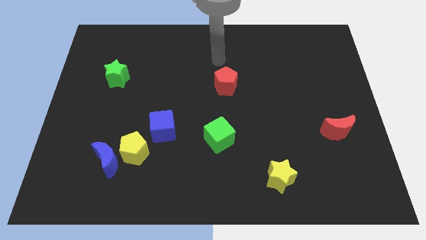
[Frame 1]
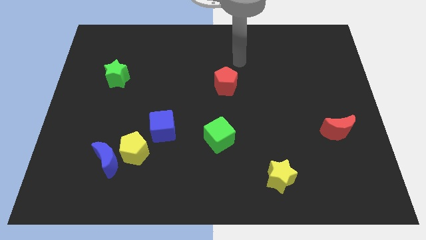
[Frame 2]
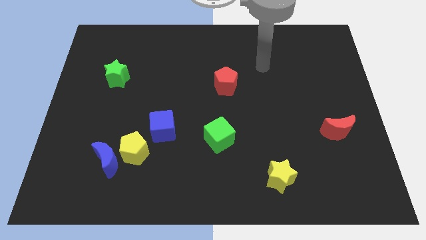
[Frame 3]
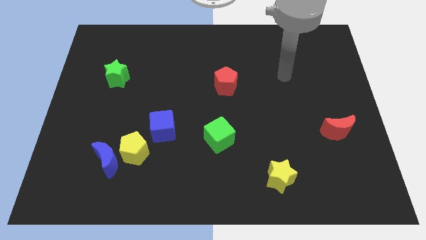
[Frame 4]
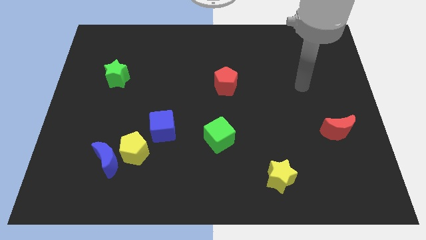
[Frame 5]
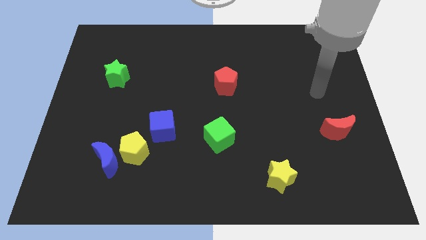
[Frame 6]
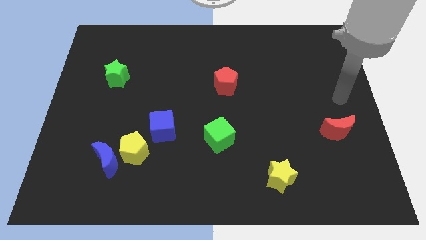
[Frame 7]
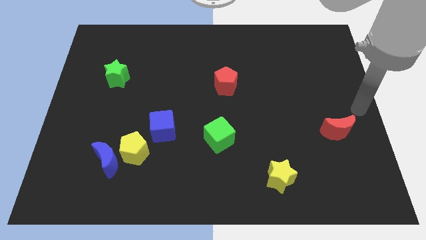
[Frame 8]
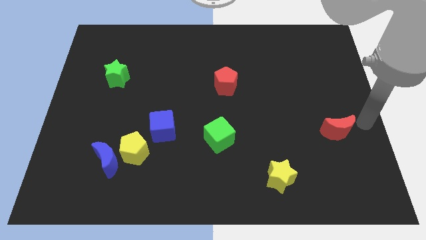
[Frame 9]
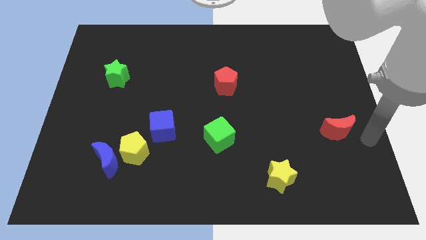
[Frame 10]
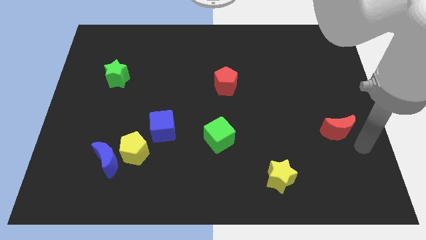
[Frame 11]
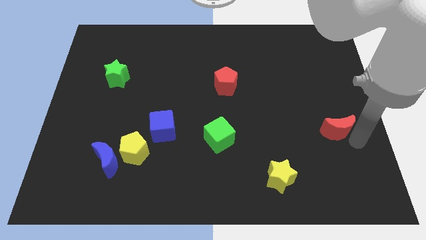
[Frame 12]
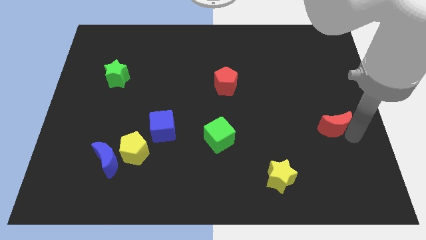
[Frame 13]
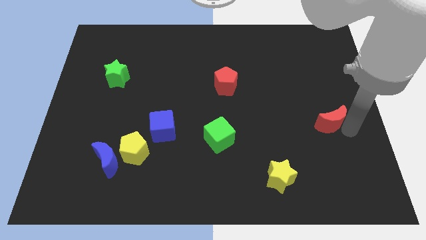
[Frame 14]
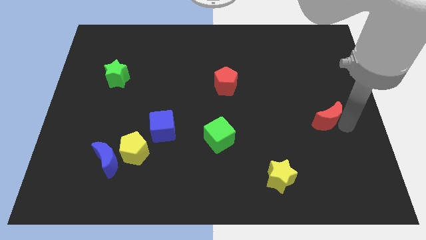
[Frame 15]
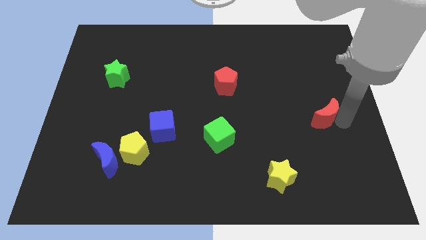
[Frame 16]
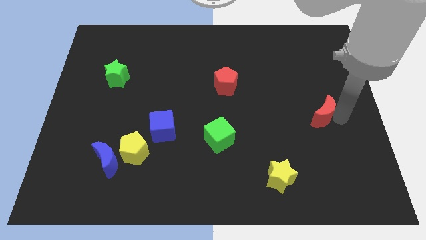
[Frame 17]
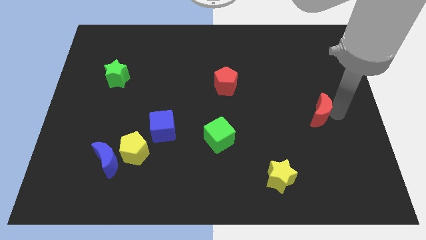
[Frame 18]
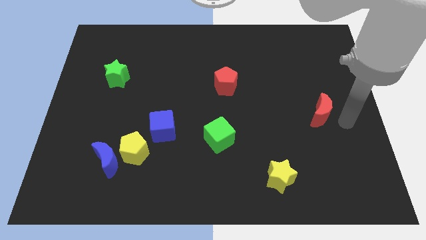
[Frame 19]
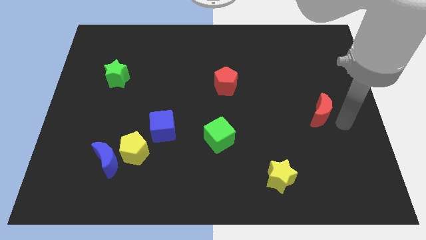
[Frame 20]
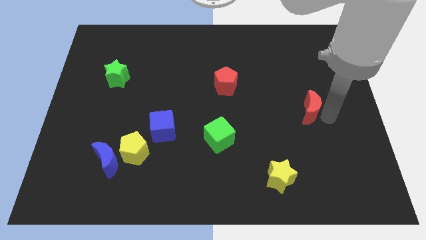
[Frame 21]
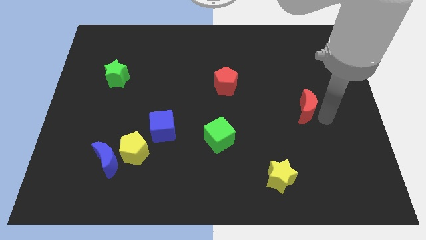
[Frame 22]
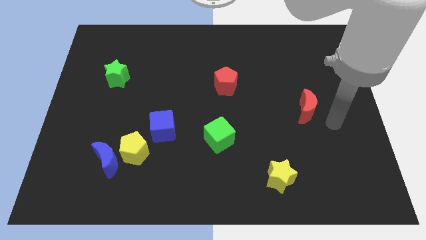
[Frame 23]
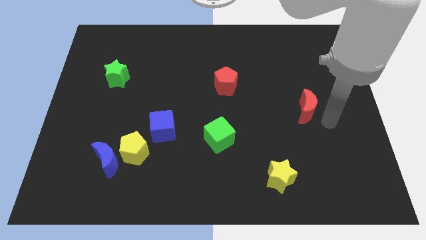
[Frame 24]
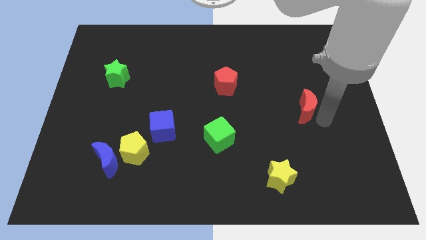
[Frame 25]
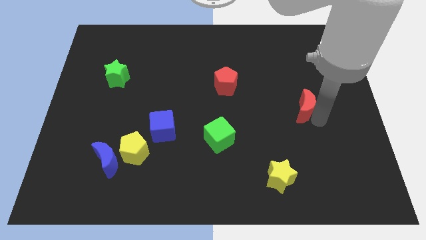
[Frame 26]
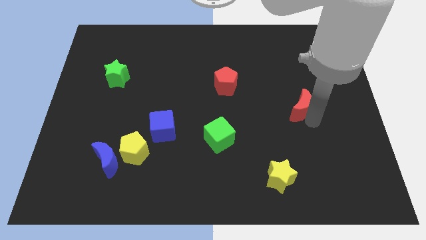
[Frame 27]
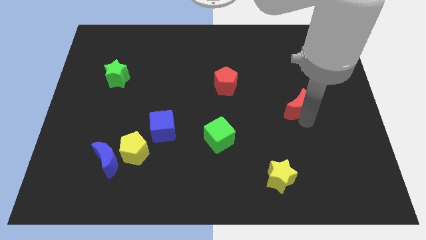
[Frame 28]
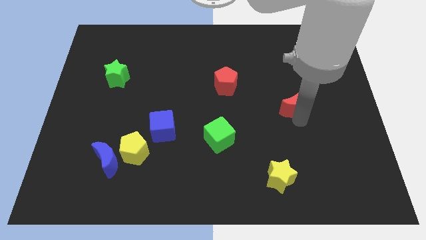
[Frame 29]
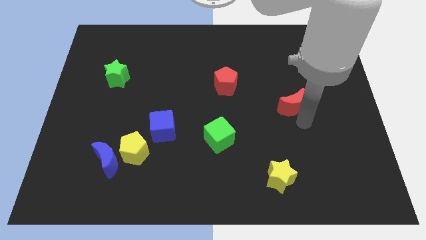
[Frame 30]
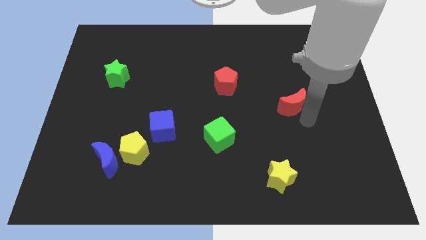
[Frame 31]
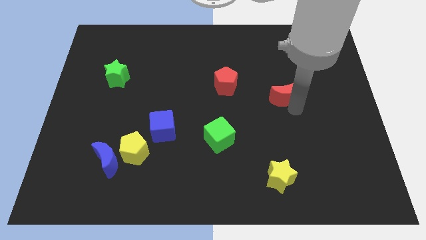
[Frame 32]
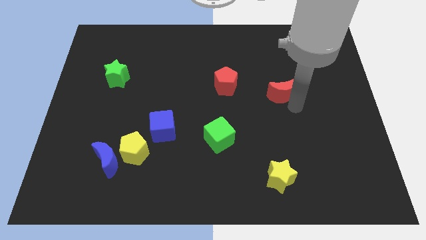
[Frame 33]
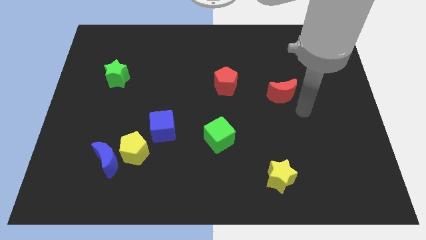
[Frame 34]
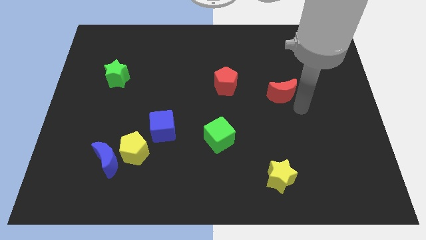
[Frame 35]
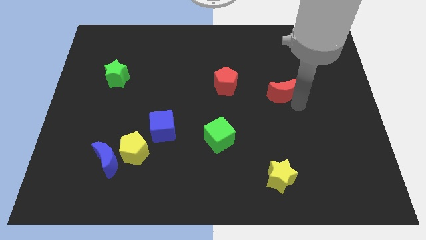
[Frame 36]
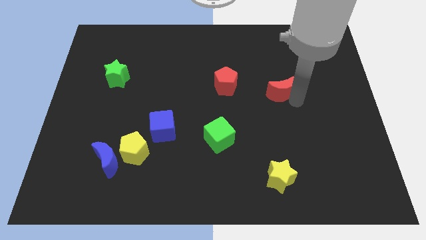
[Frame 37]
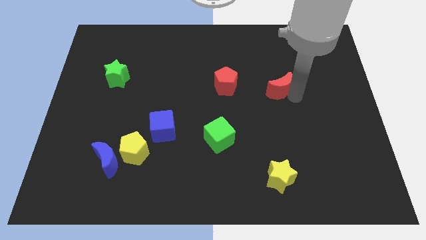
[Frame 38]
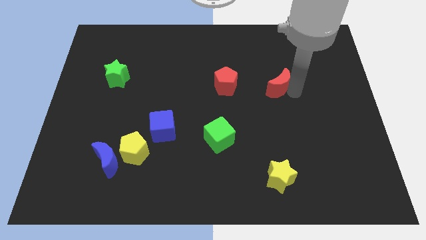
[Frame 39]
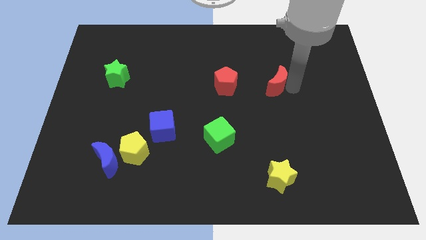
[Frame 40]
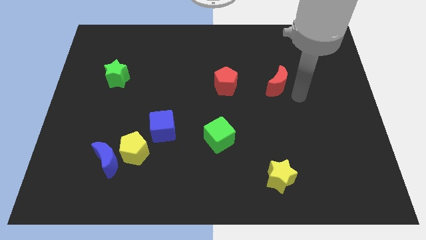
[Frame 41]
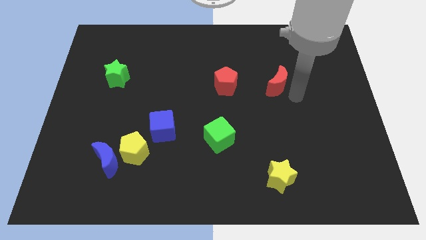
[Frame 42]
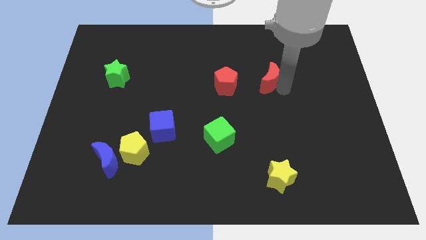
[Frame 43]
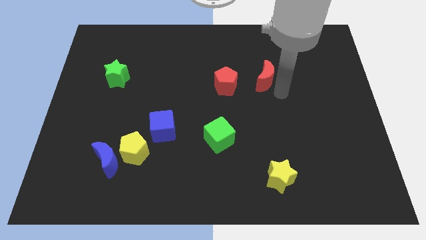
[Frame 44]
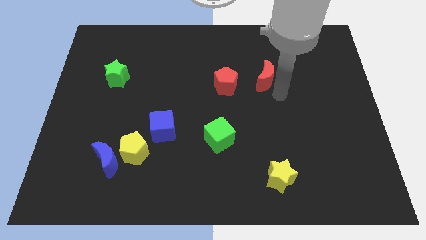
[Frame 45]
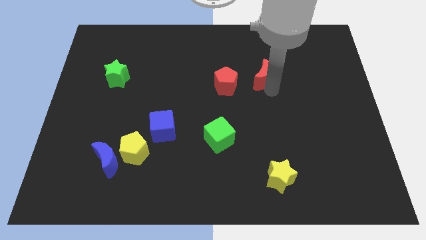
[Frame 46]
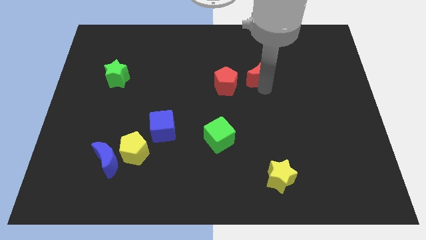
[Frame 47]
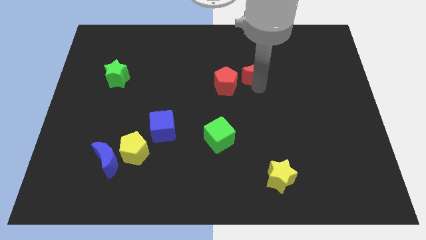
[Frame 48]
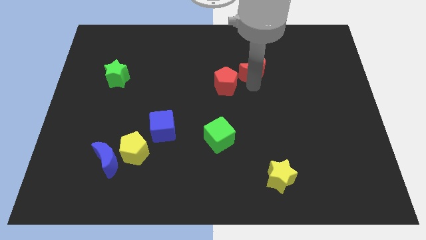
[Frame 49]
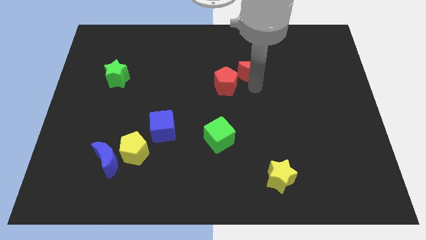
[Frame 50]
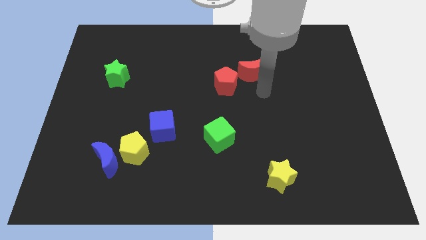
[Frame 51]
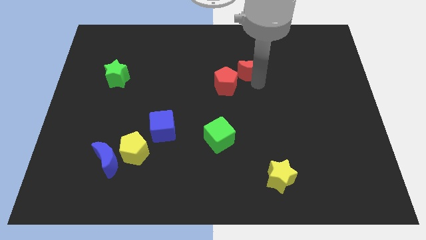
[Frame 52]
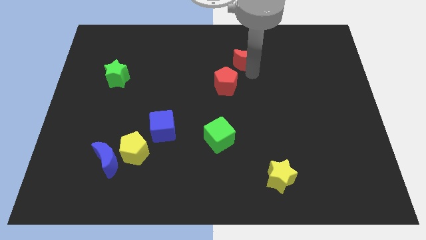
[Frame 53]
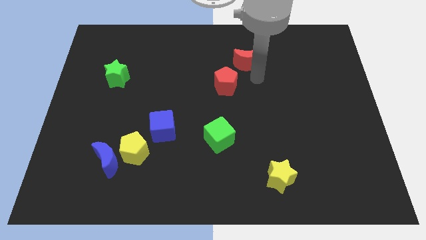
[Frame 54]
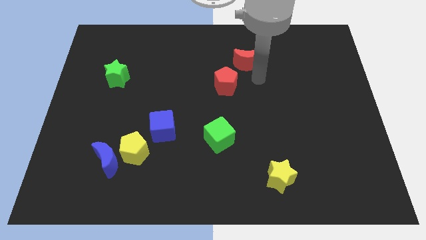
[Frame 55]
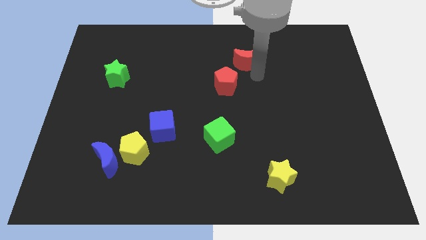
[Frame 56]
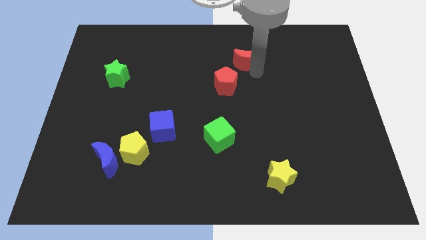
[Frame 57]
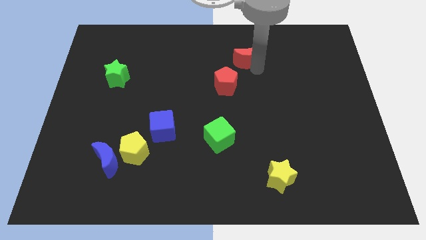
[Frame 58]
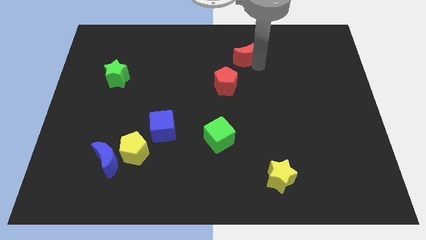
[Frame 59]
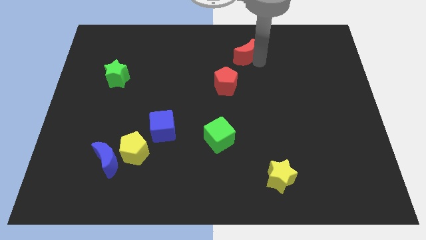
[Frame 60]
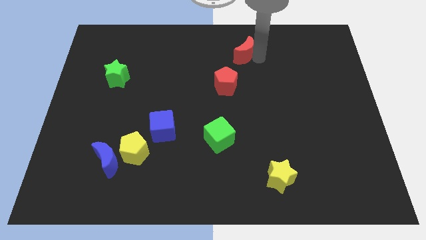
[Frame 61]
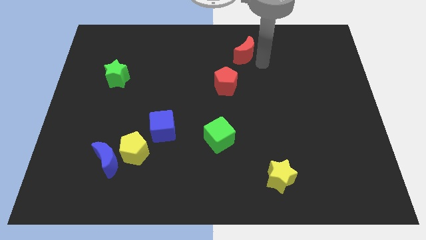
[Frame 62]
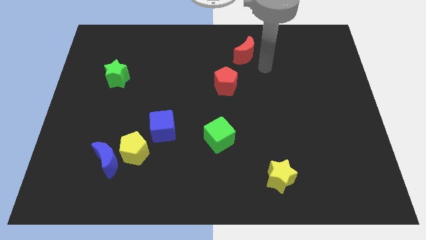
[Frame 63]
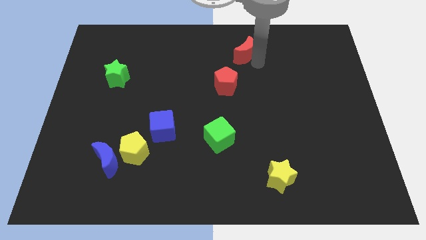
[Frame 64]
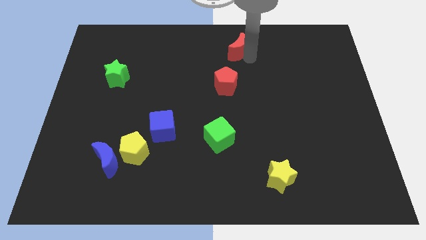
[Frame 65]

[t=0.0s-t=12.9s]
put the red moon to the towards your base

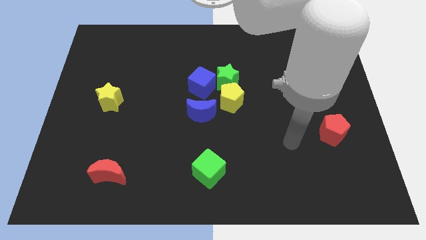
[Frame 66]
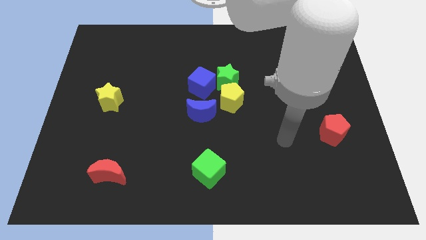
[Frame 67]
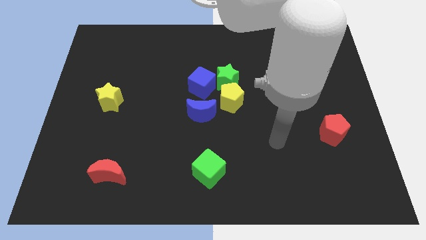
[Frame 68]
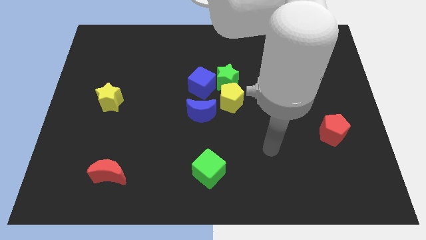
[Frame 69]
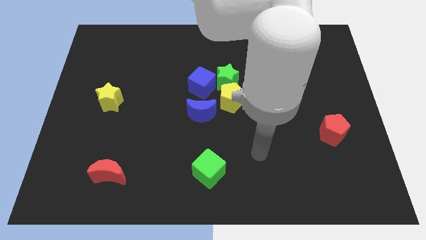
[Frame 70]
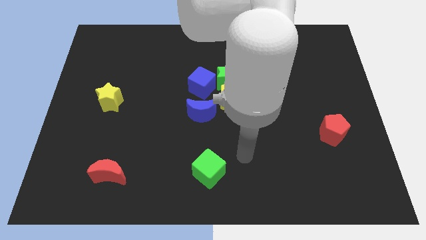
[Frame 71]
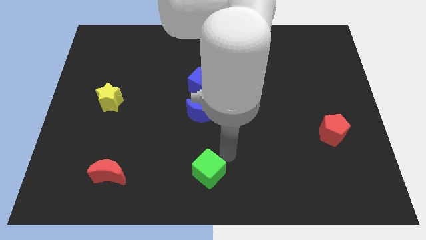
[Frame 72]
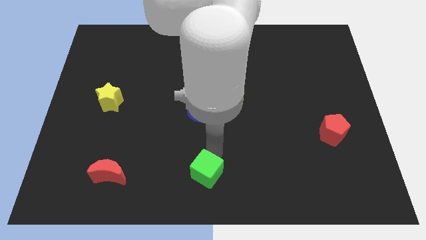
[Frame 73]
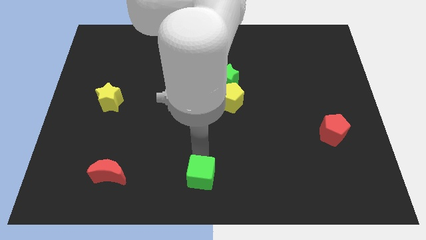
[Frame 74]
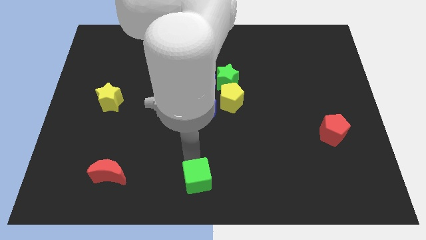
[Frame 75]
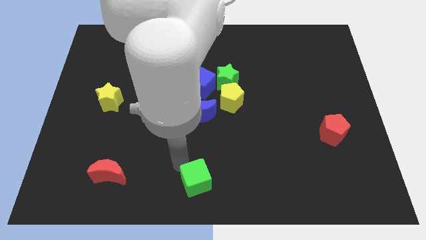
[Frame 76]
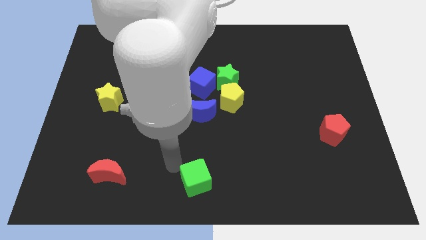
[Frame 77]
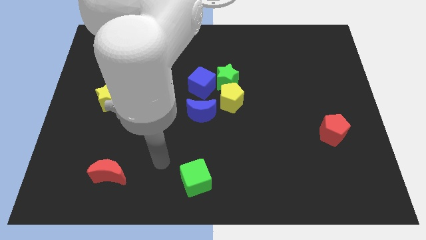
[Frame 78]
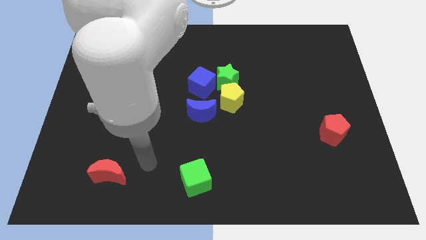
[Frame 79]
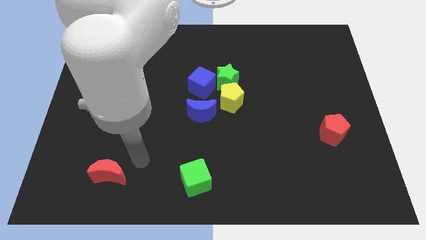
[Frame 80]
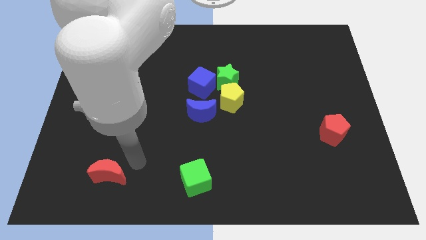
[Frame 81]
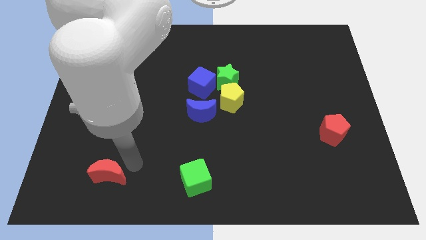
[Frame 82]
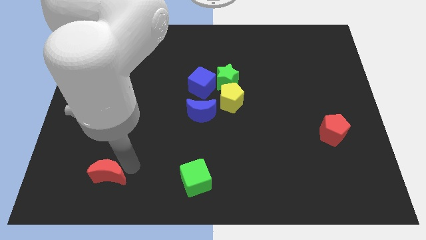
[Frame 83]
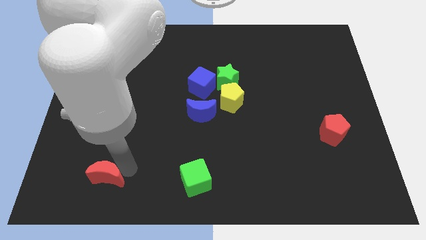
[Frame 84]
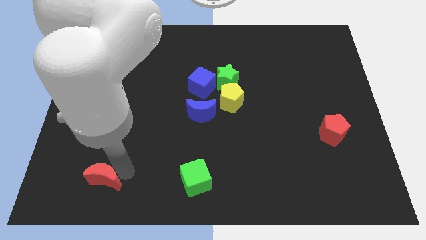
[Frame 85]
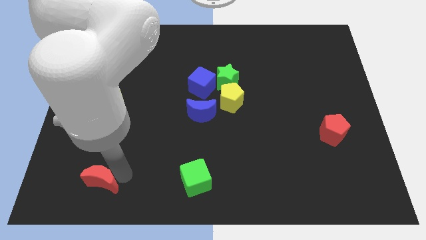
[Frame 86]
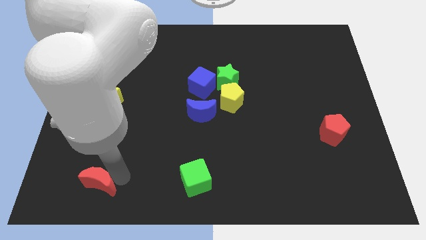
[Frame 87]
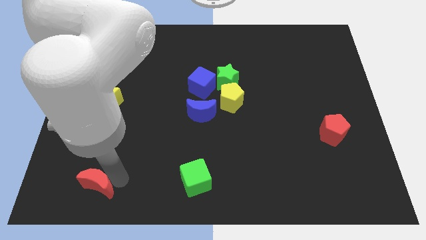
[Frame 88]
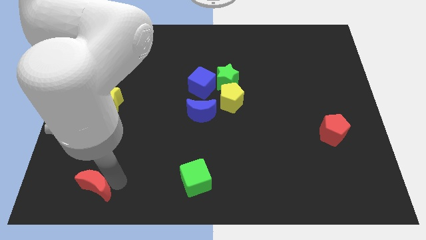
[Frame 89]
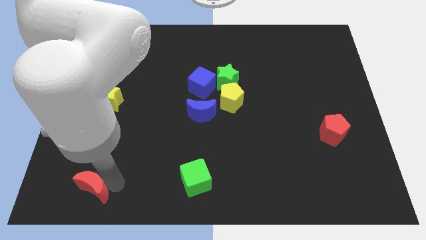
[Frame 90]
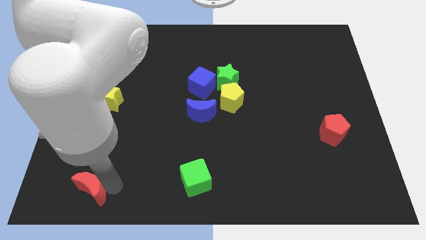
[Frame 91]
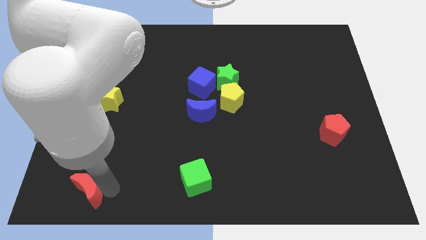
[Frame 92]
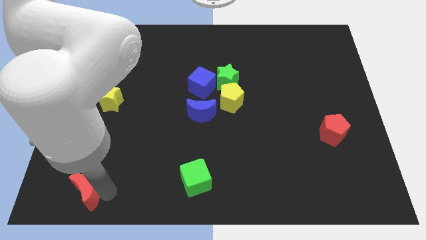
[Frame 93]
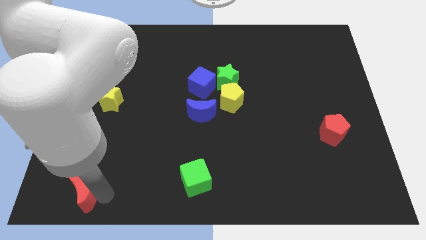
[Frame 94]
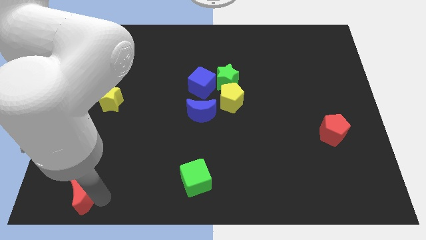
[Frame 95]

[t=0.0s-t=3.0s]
move the red moon to the bottom left corner
